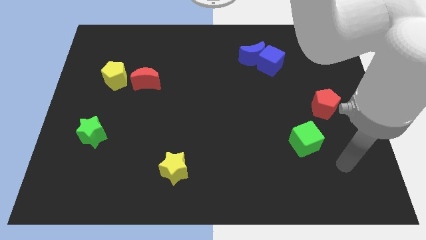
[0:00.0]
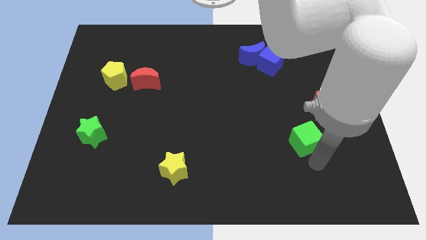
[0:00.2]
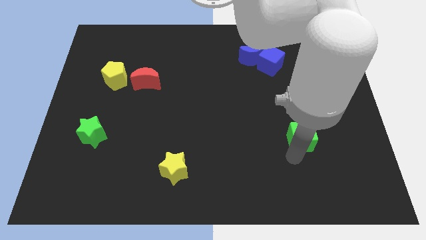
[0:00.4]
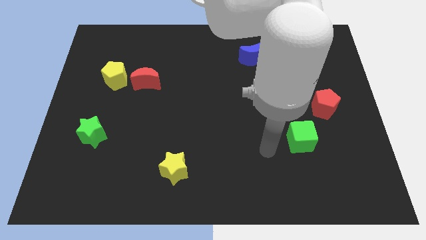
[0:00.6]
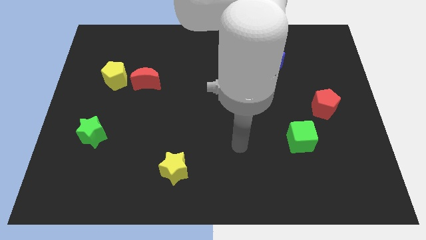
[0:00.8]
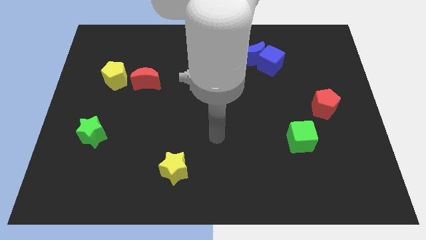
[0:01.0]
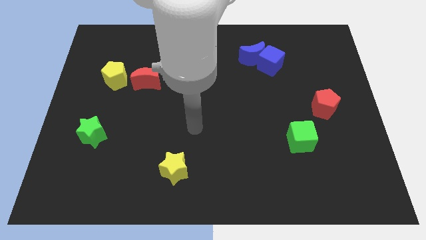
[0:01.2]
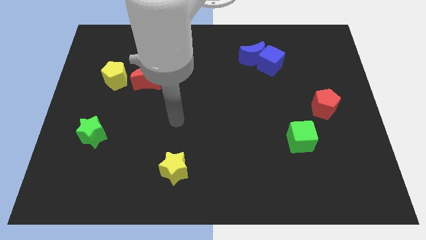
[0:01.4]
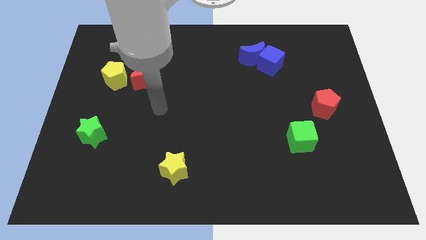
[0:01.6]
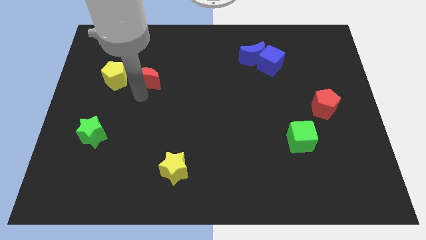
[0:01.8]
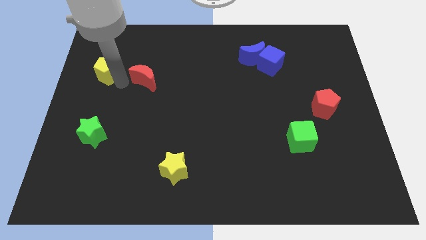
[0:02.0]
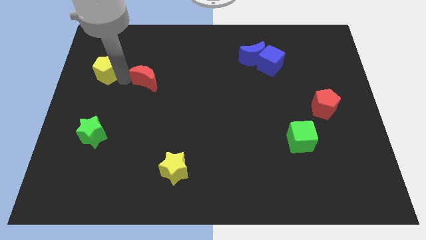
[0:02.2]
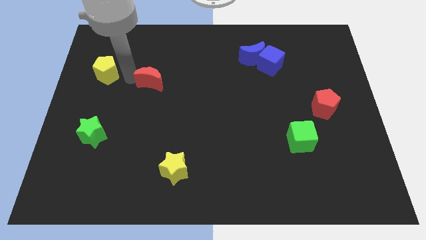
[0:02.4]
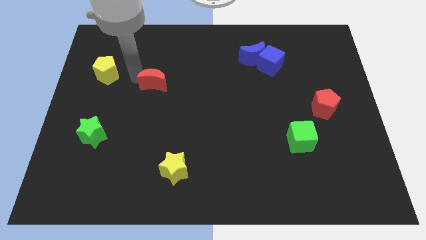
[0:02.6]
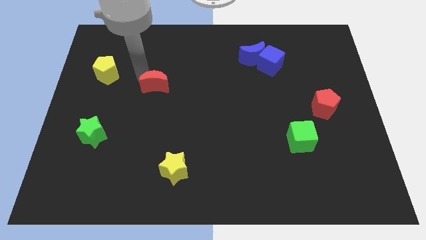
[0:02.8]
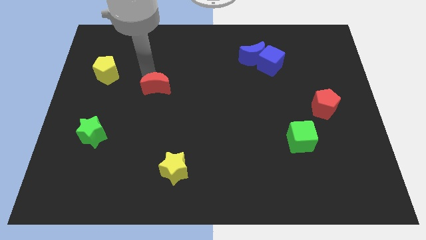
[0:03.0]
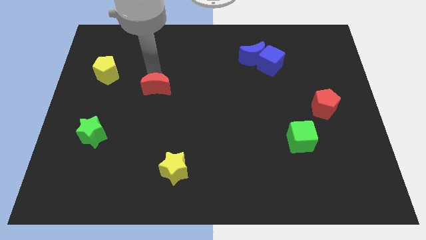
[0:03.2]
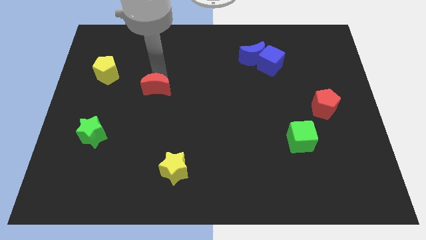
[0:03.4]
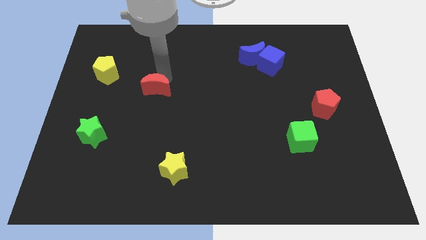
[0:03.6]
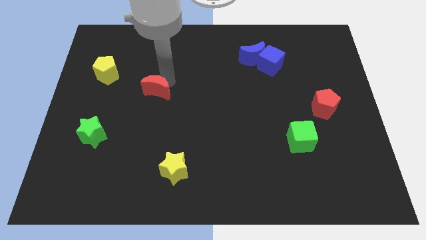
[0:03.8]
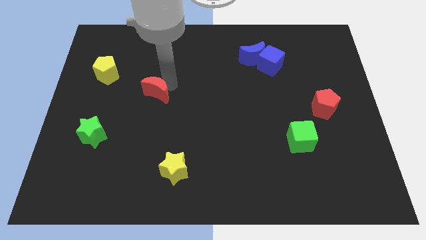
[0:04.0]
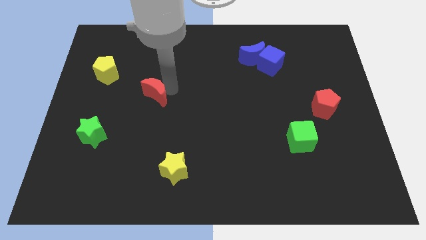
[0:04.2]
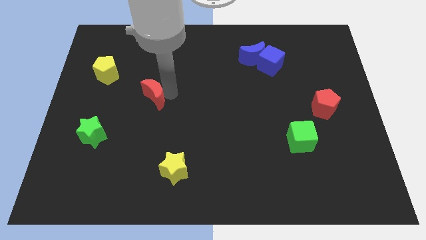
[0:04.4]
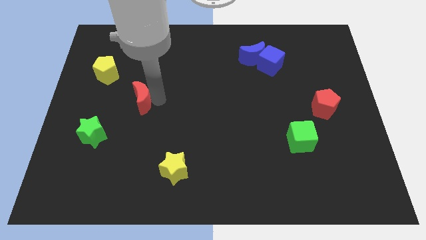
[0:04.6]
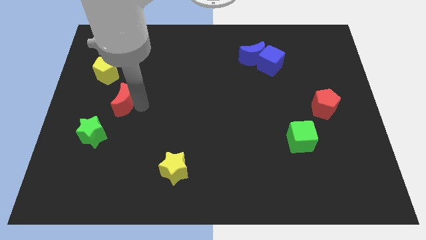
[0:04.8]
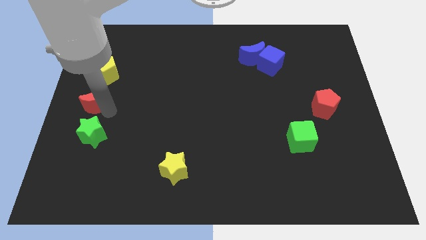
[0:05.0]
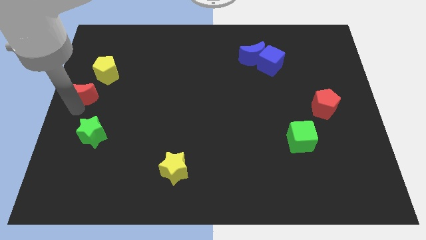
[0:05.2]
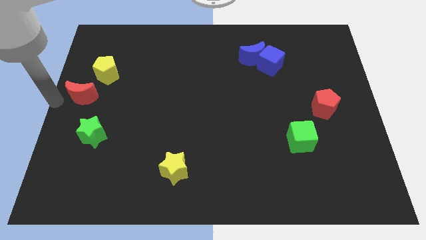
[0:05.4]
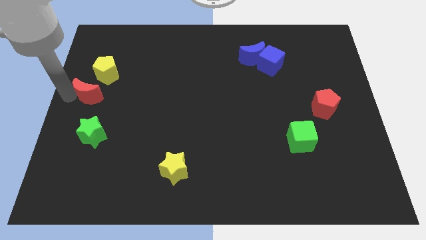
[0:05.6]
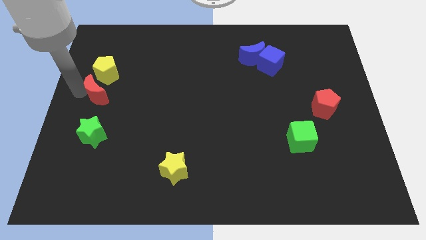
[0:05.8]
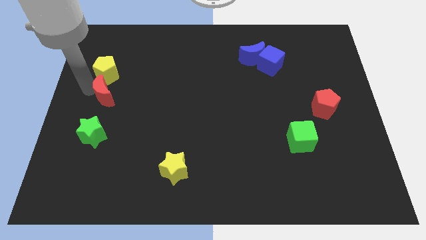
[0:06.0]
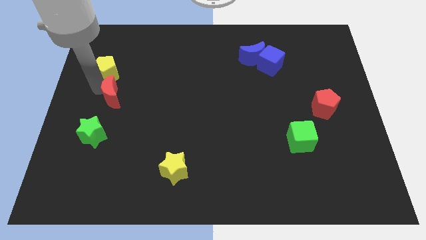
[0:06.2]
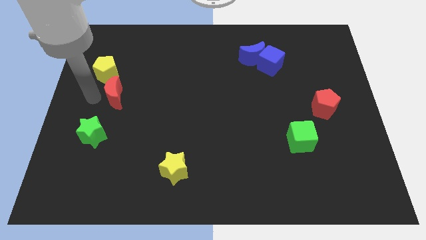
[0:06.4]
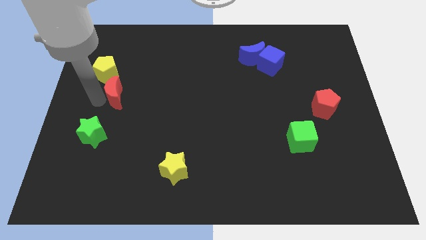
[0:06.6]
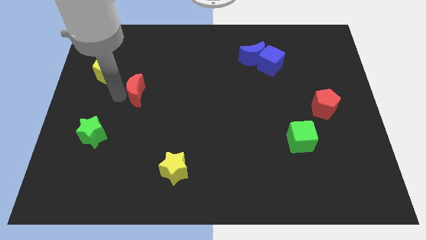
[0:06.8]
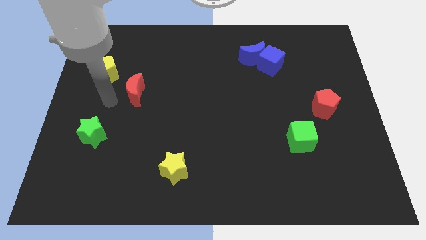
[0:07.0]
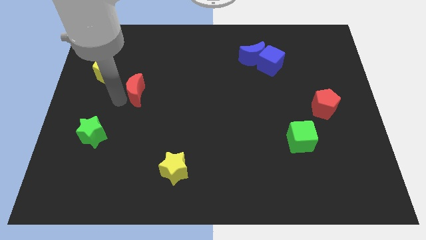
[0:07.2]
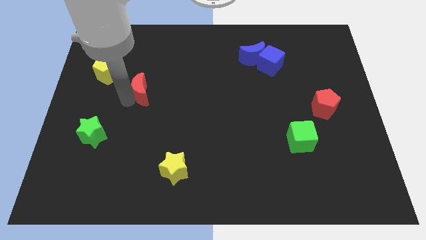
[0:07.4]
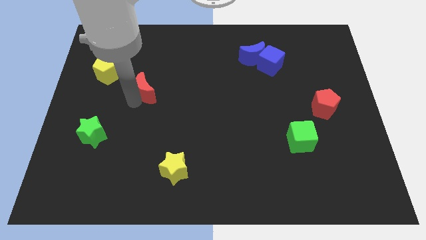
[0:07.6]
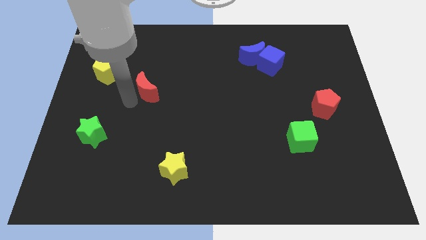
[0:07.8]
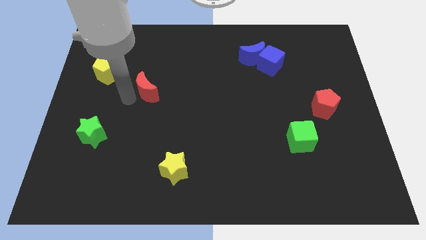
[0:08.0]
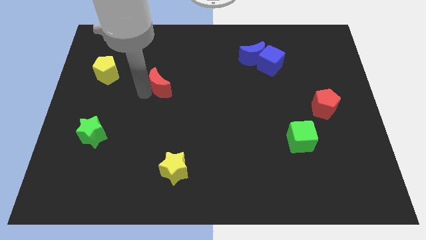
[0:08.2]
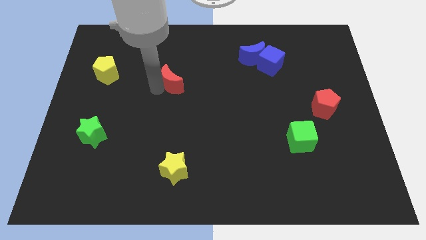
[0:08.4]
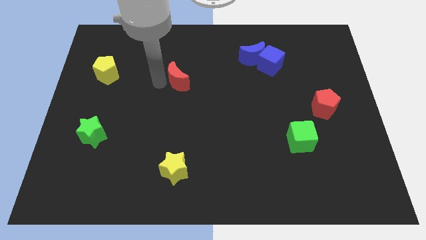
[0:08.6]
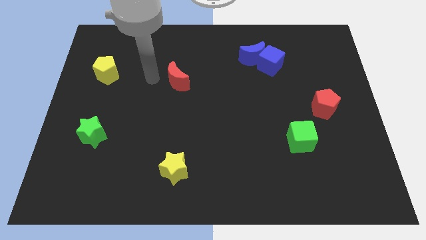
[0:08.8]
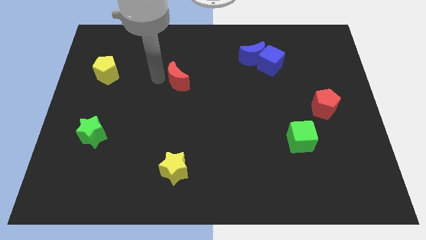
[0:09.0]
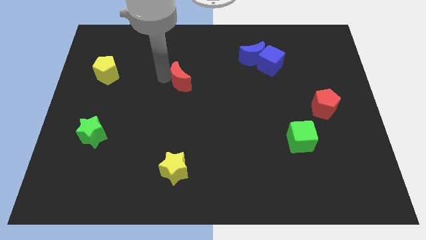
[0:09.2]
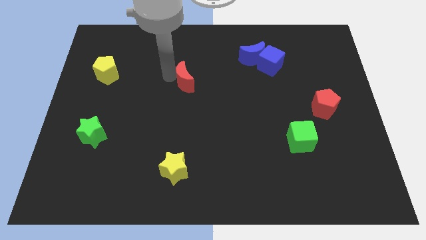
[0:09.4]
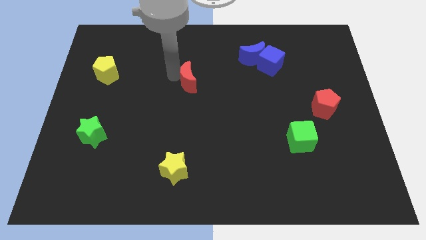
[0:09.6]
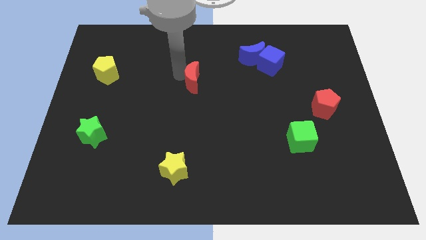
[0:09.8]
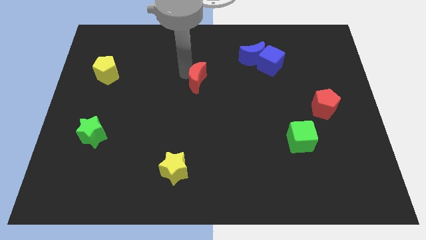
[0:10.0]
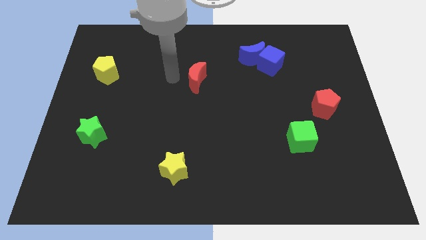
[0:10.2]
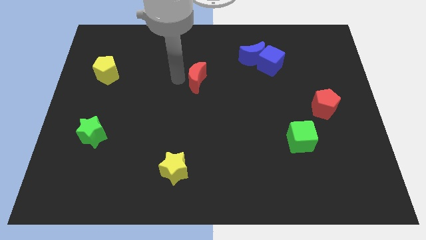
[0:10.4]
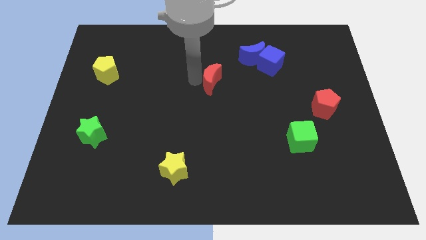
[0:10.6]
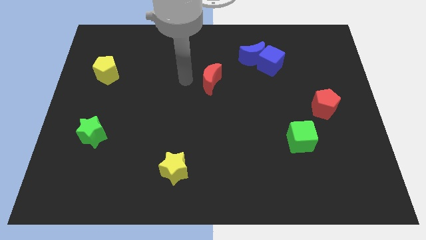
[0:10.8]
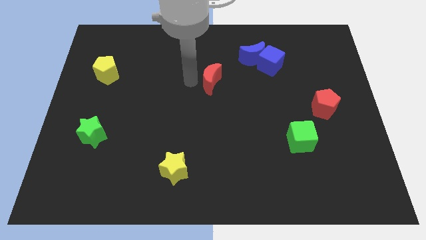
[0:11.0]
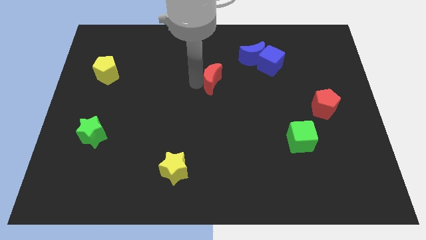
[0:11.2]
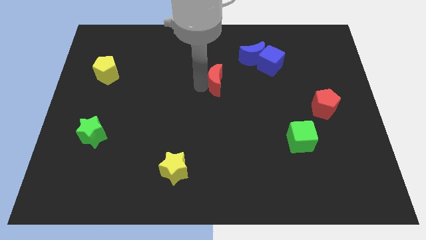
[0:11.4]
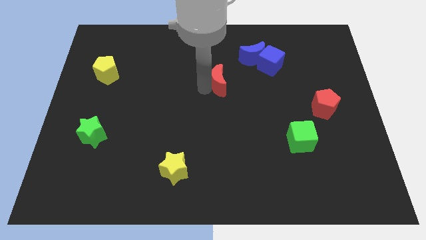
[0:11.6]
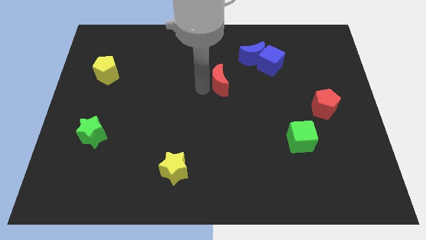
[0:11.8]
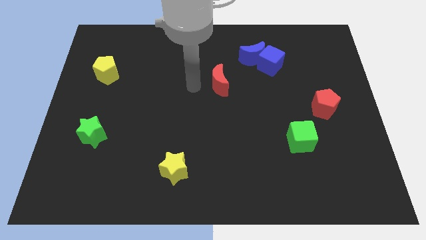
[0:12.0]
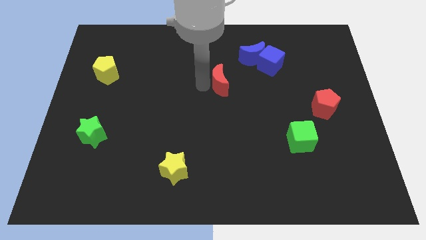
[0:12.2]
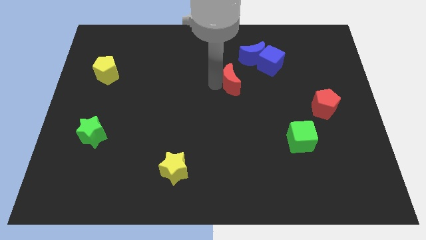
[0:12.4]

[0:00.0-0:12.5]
slide the red moon to the right

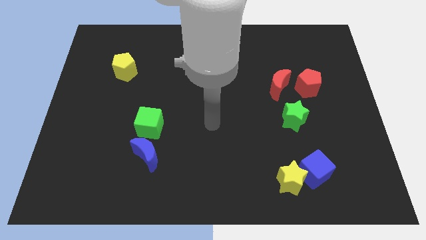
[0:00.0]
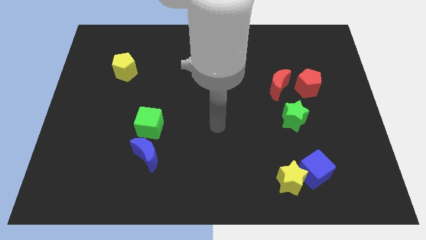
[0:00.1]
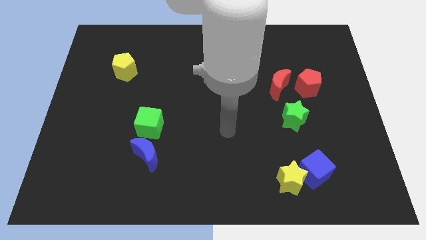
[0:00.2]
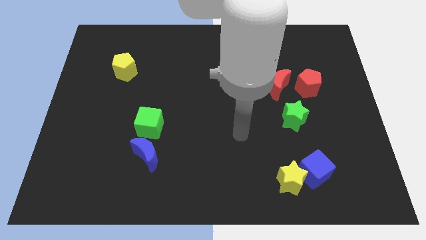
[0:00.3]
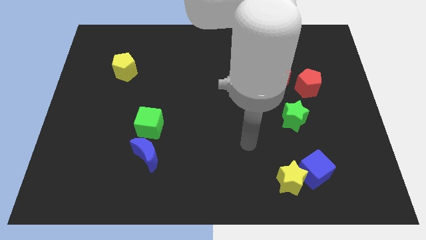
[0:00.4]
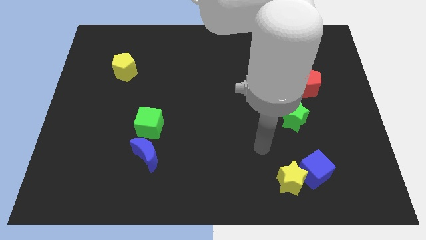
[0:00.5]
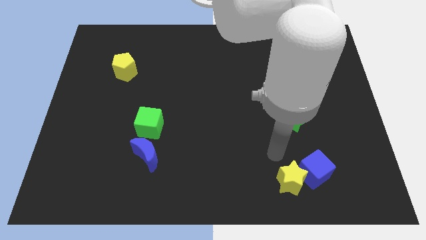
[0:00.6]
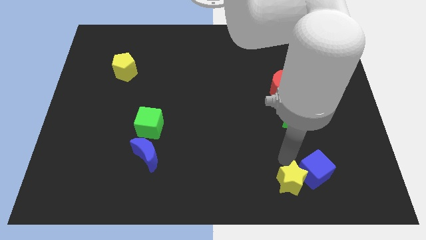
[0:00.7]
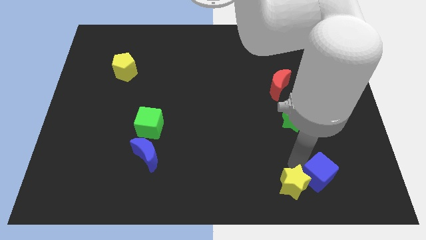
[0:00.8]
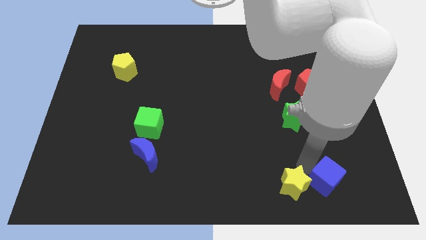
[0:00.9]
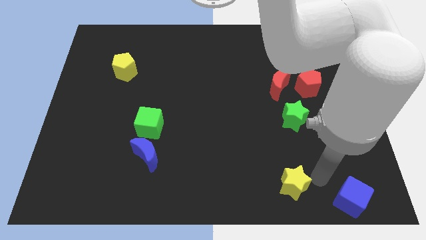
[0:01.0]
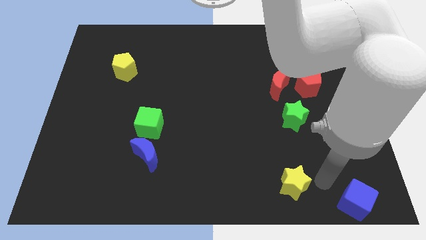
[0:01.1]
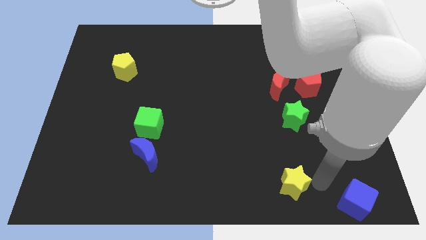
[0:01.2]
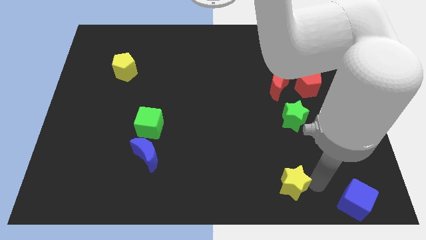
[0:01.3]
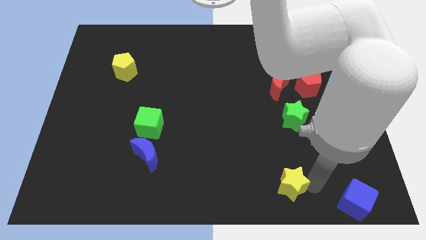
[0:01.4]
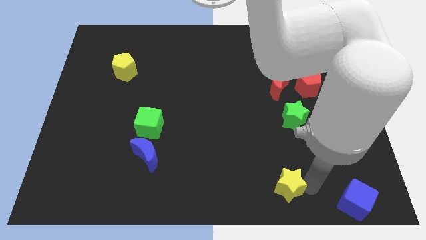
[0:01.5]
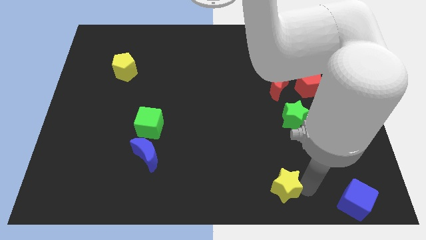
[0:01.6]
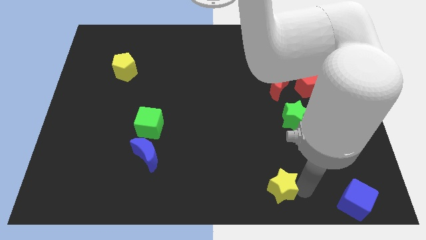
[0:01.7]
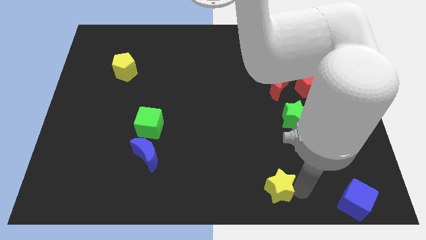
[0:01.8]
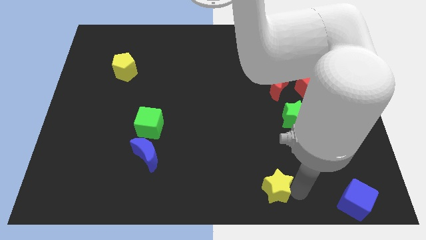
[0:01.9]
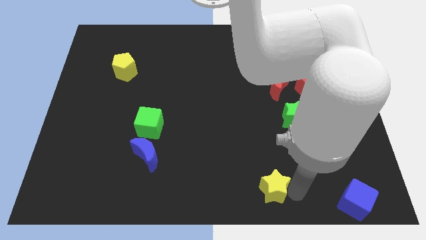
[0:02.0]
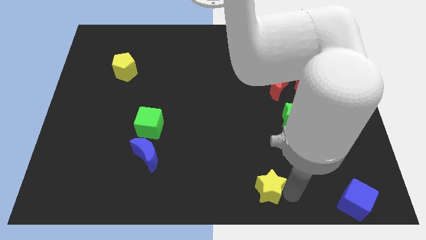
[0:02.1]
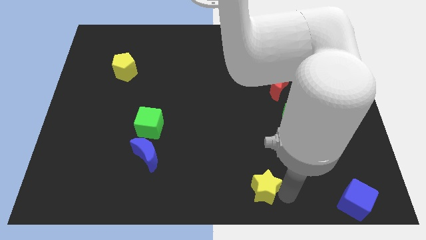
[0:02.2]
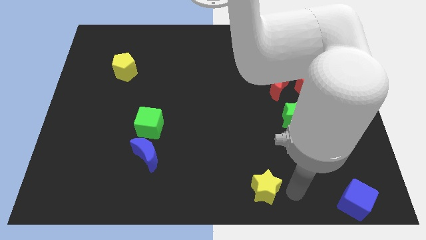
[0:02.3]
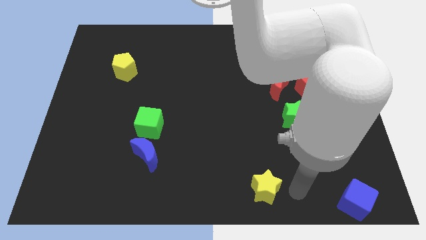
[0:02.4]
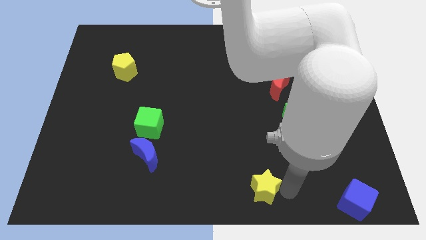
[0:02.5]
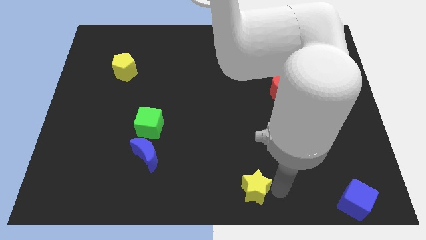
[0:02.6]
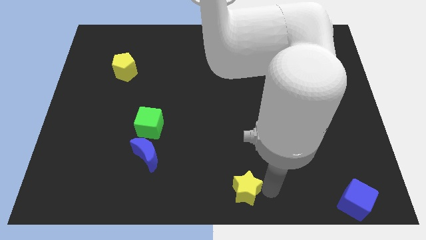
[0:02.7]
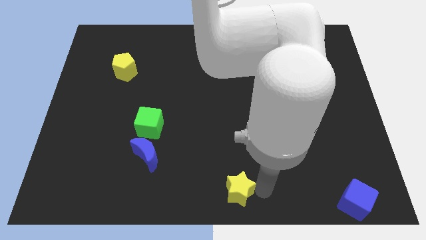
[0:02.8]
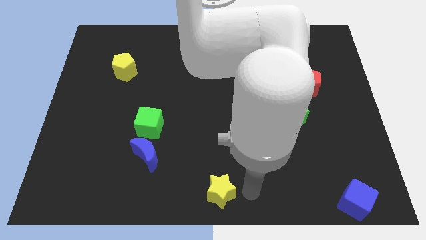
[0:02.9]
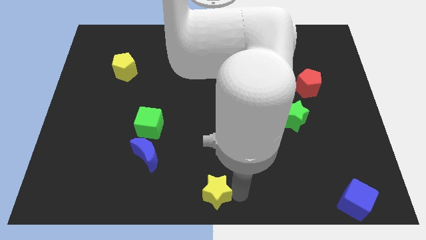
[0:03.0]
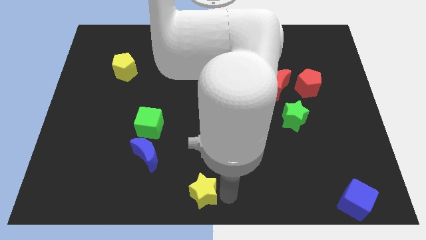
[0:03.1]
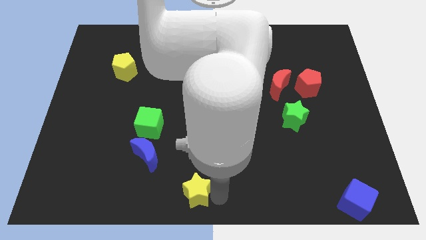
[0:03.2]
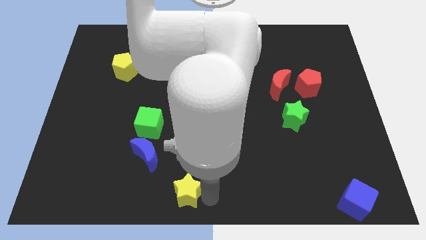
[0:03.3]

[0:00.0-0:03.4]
slide the yellow star to the left
